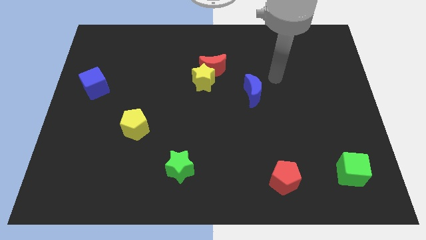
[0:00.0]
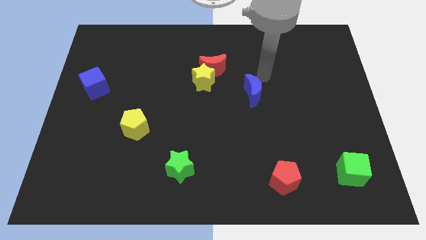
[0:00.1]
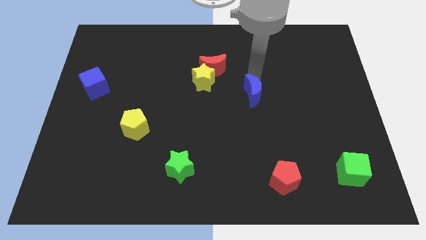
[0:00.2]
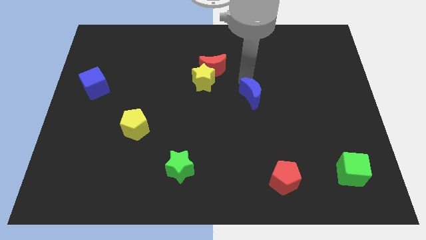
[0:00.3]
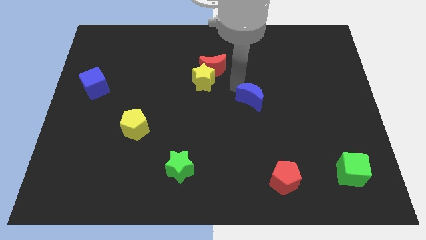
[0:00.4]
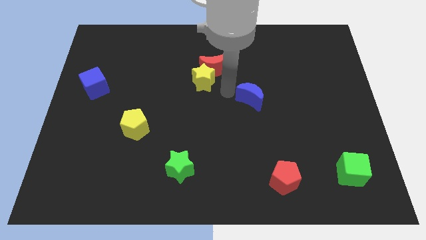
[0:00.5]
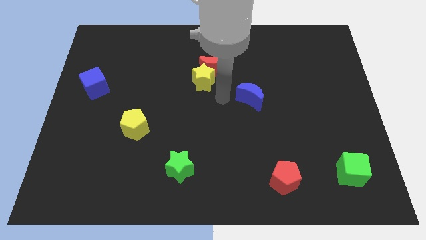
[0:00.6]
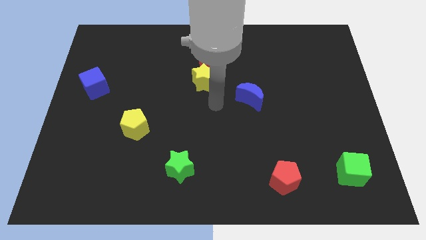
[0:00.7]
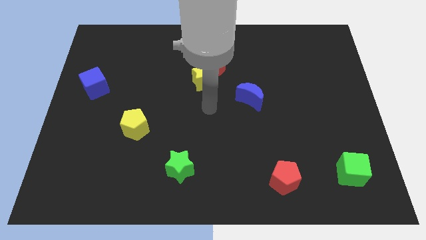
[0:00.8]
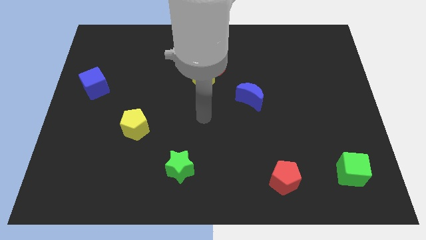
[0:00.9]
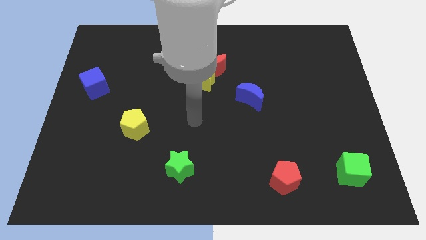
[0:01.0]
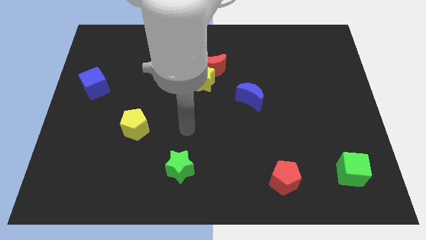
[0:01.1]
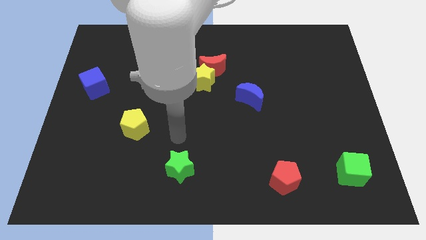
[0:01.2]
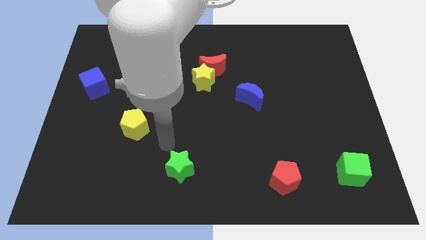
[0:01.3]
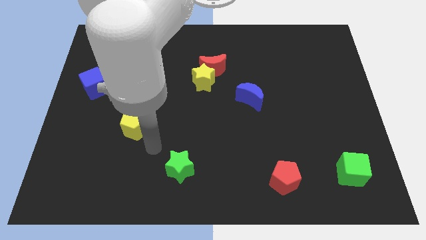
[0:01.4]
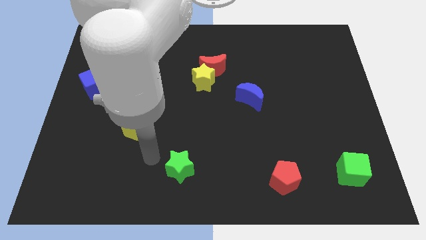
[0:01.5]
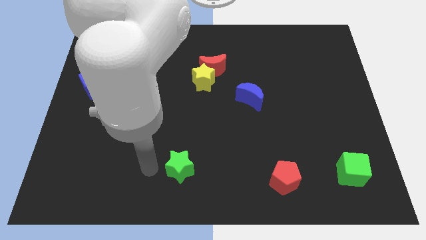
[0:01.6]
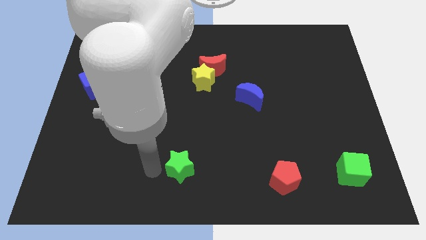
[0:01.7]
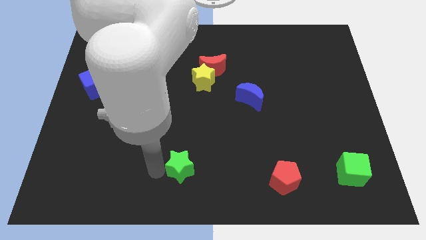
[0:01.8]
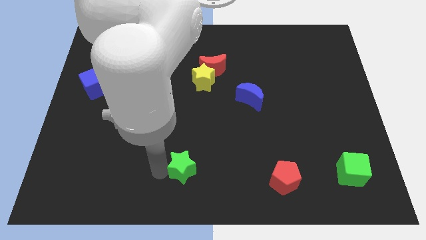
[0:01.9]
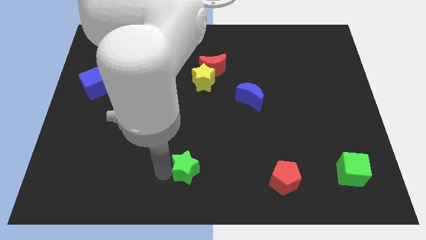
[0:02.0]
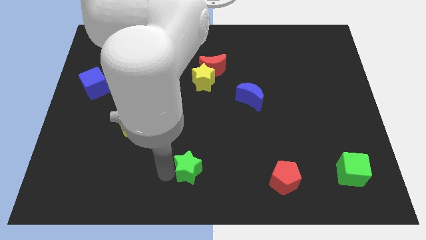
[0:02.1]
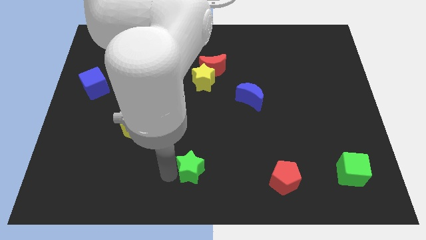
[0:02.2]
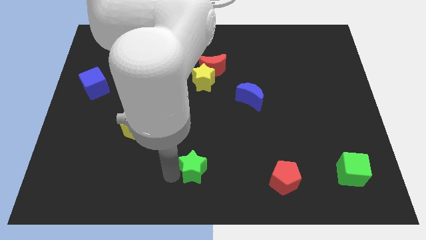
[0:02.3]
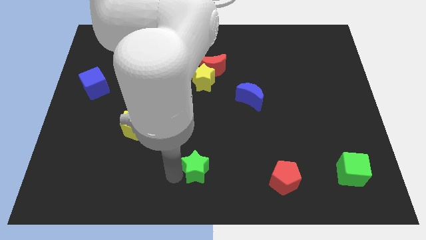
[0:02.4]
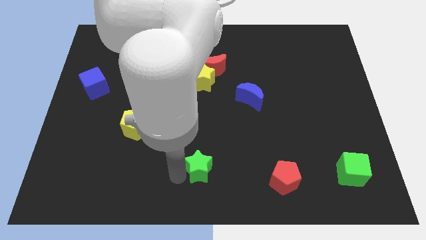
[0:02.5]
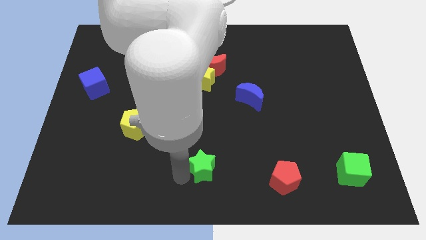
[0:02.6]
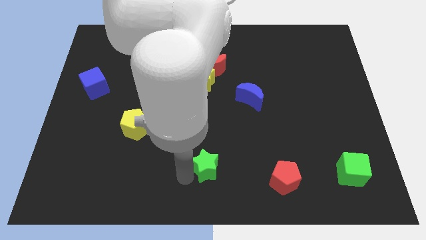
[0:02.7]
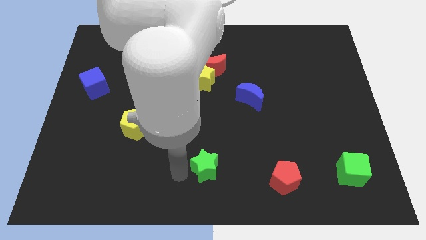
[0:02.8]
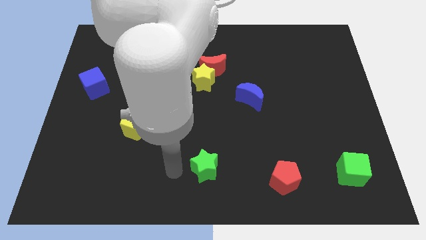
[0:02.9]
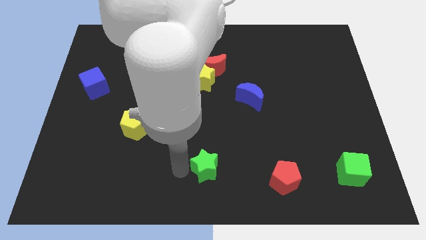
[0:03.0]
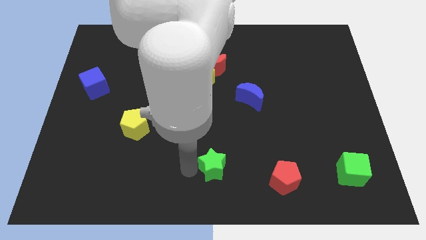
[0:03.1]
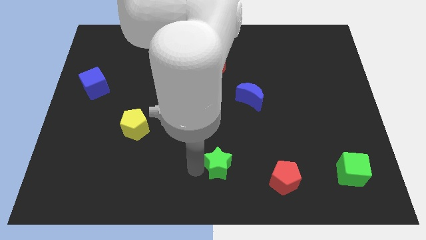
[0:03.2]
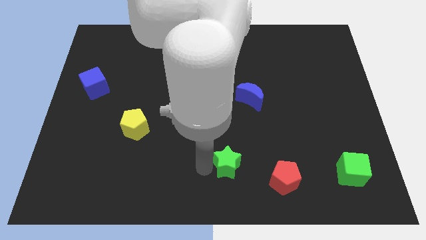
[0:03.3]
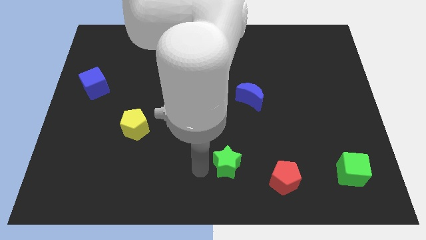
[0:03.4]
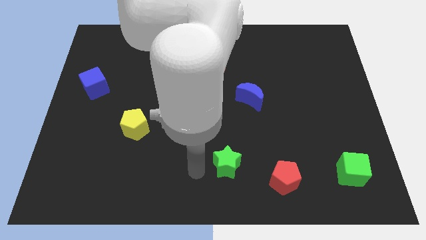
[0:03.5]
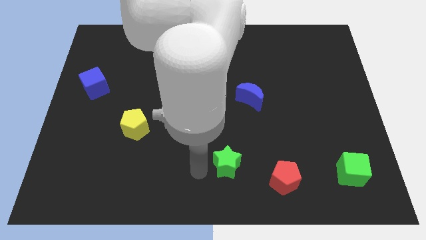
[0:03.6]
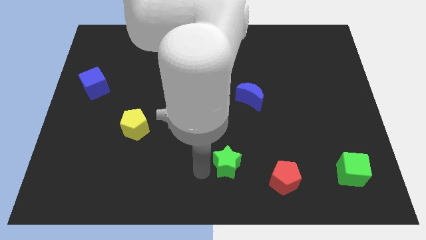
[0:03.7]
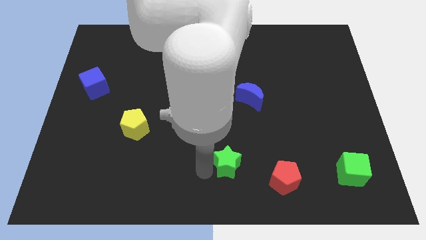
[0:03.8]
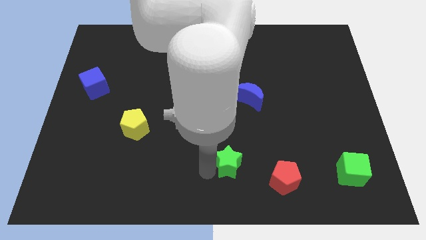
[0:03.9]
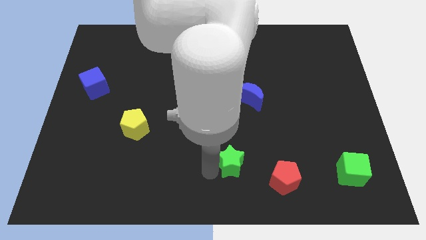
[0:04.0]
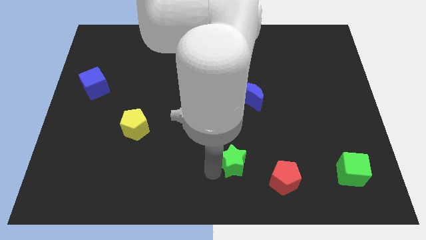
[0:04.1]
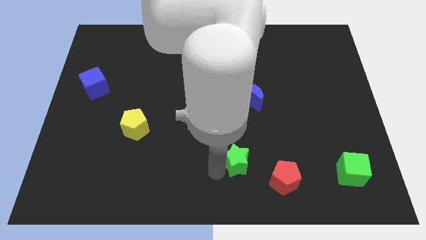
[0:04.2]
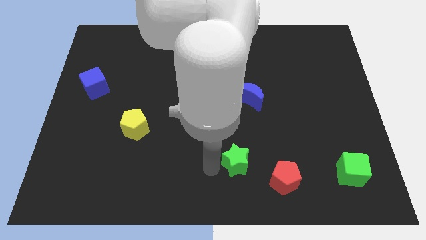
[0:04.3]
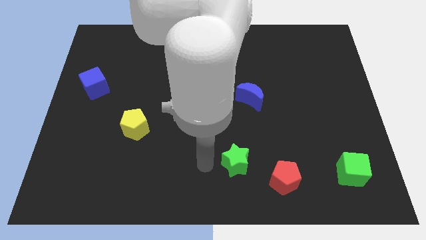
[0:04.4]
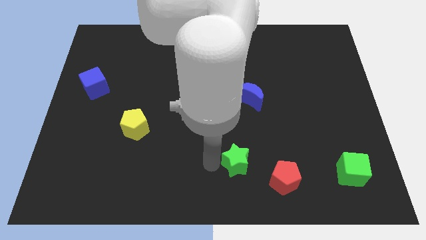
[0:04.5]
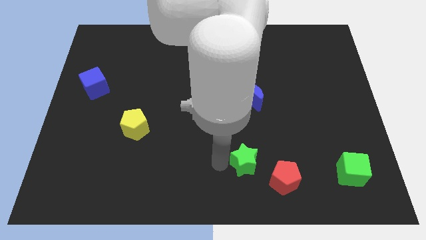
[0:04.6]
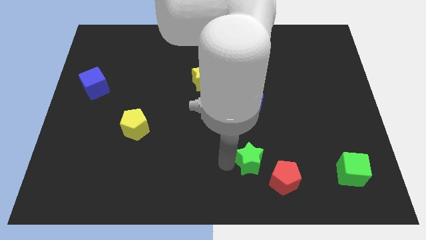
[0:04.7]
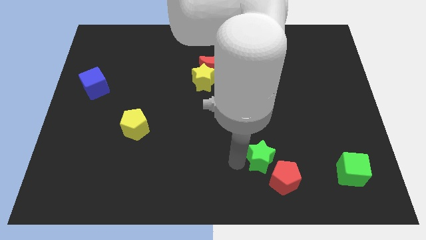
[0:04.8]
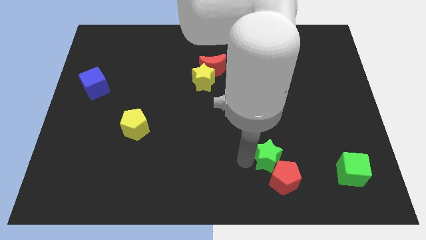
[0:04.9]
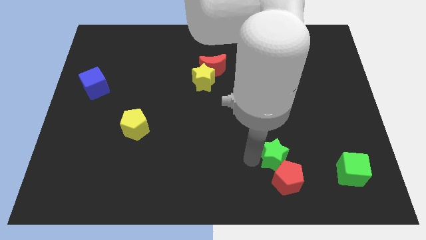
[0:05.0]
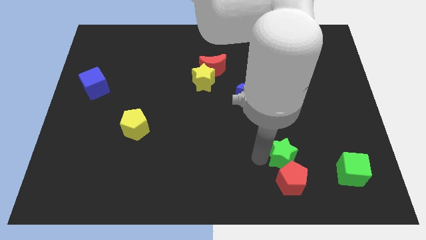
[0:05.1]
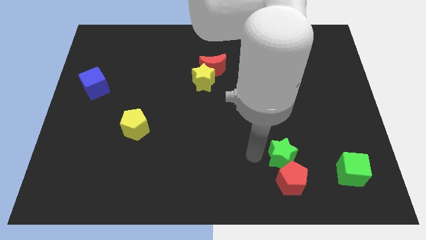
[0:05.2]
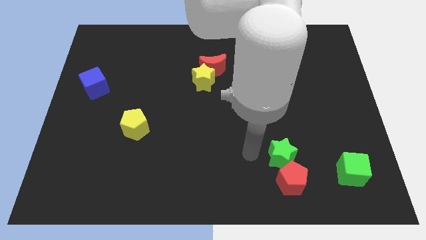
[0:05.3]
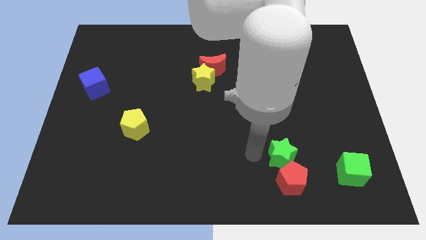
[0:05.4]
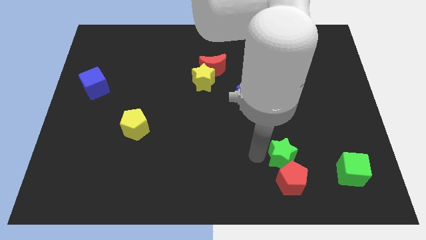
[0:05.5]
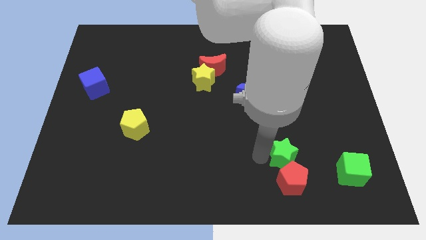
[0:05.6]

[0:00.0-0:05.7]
push the green star to the top right of the red pentagon
